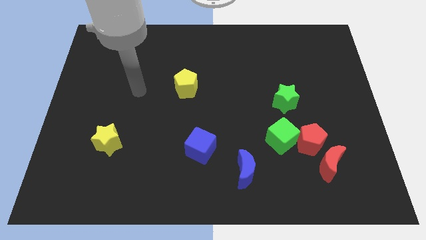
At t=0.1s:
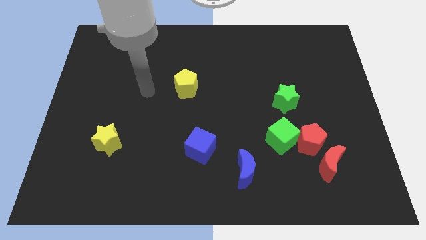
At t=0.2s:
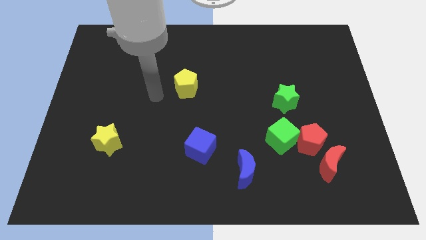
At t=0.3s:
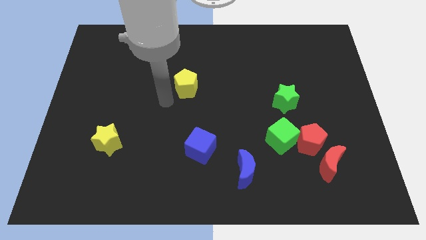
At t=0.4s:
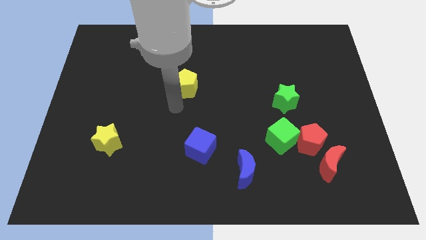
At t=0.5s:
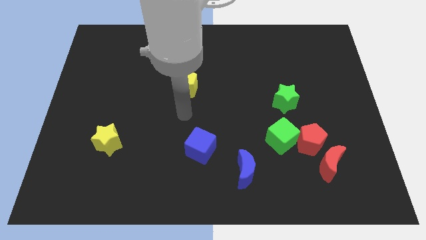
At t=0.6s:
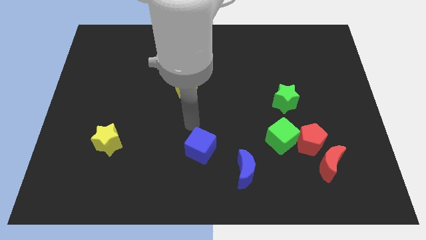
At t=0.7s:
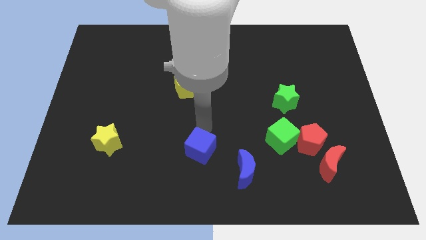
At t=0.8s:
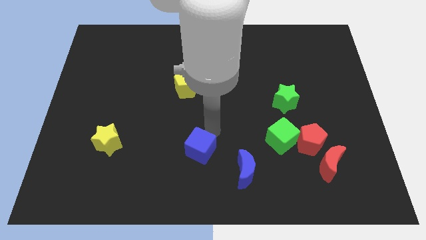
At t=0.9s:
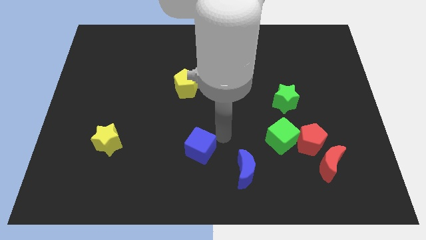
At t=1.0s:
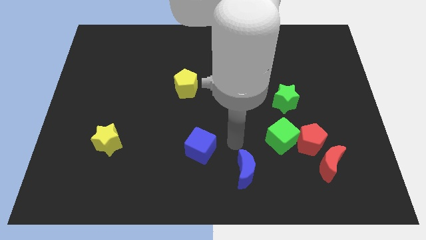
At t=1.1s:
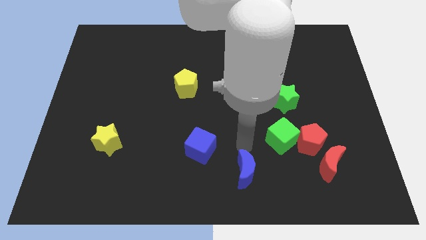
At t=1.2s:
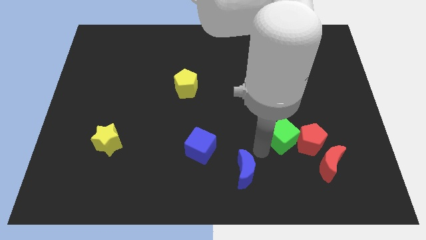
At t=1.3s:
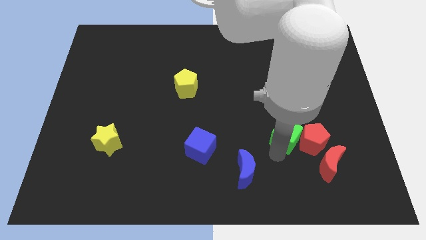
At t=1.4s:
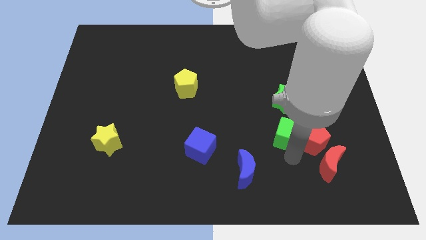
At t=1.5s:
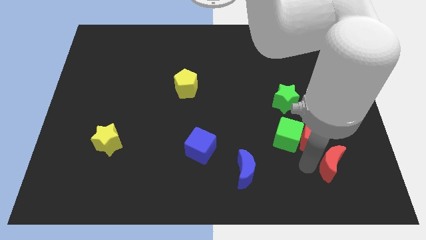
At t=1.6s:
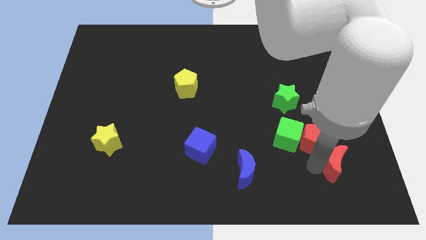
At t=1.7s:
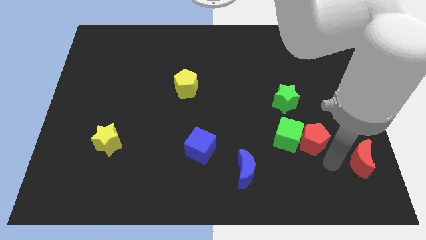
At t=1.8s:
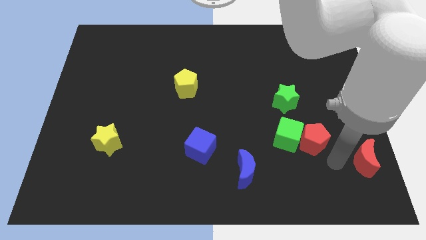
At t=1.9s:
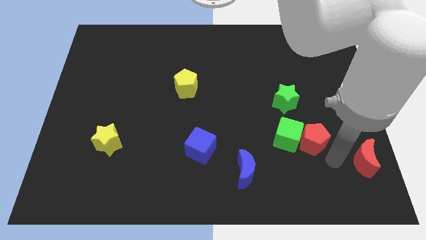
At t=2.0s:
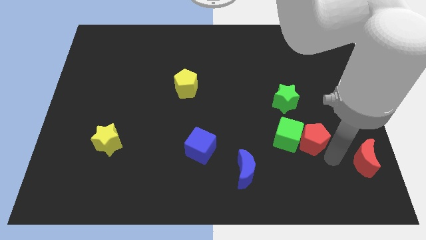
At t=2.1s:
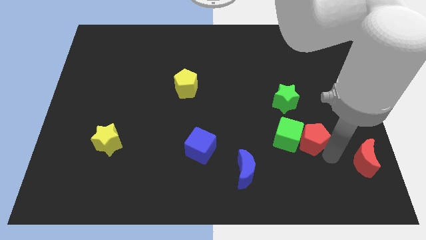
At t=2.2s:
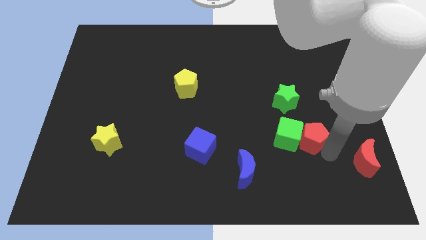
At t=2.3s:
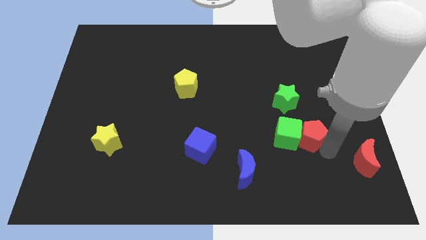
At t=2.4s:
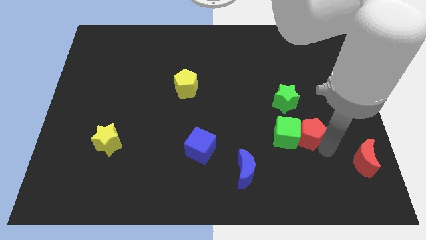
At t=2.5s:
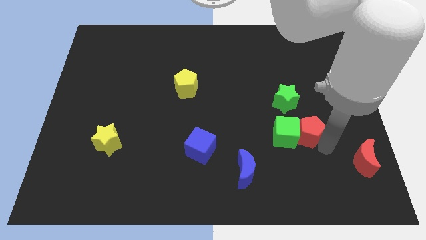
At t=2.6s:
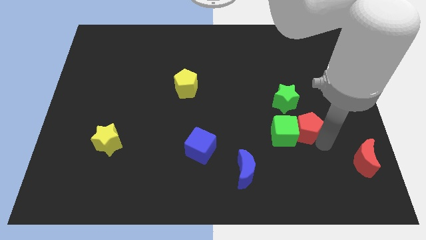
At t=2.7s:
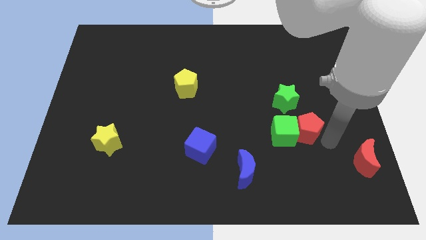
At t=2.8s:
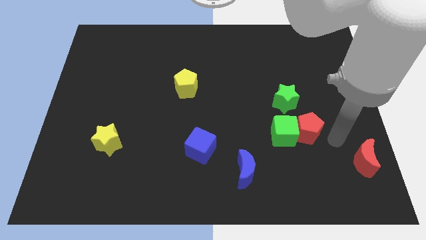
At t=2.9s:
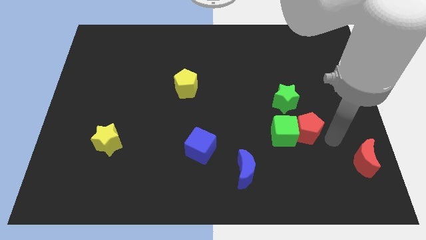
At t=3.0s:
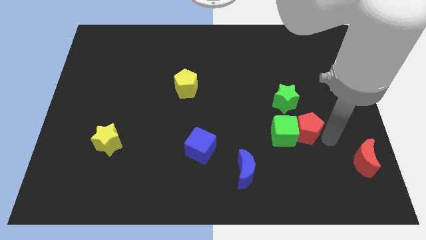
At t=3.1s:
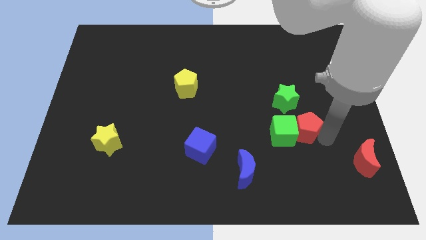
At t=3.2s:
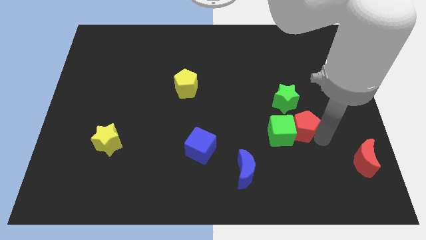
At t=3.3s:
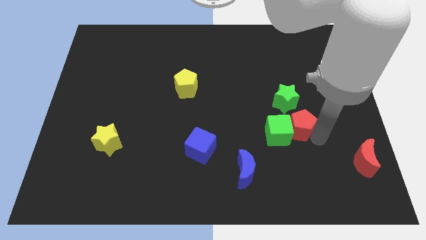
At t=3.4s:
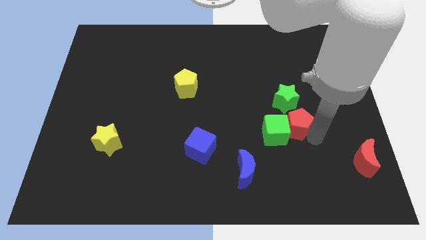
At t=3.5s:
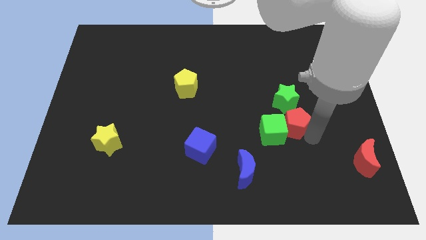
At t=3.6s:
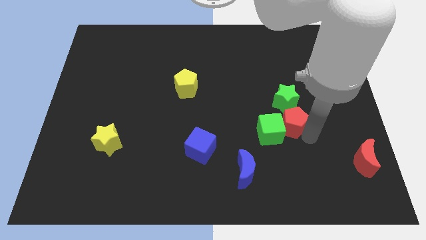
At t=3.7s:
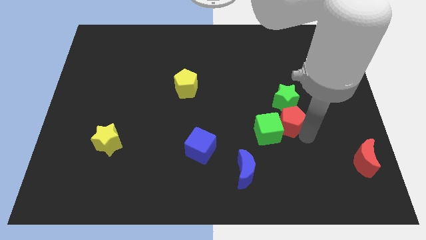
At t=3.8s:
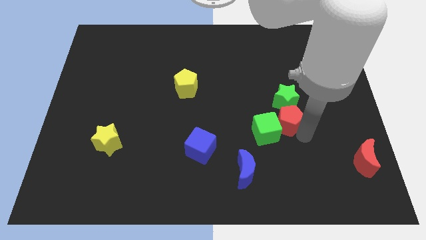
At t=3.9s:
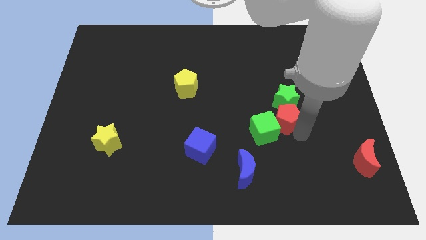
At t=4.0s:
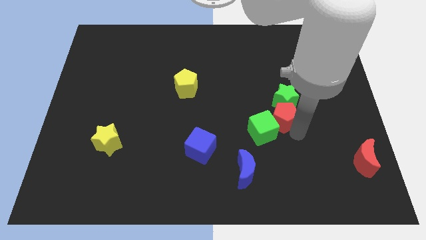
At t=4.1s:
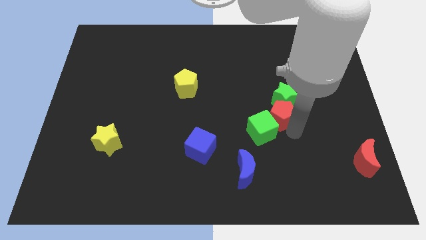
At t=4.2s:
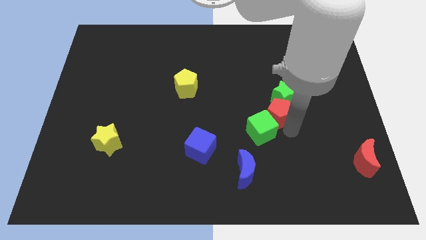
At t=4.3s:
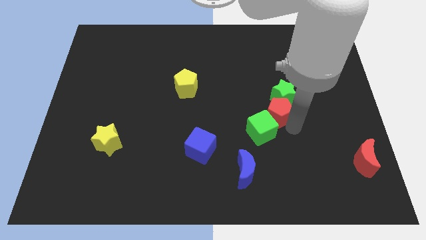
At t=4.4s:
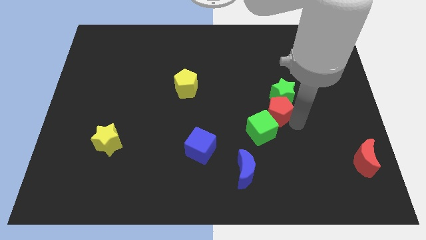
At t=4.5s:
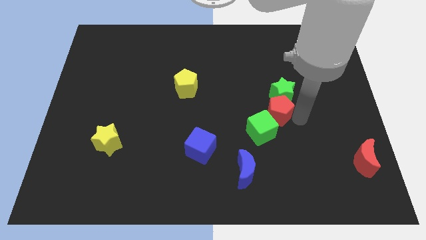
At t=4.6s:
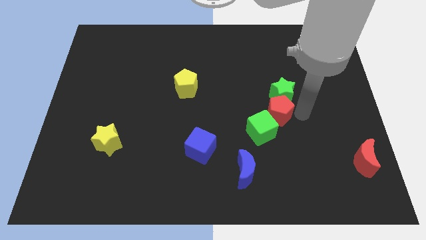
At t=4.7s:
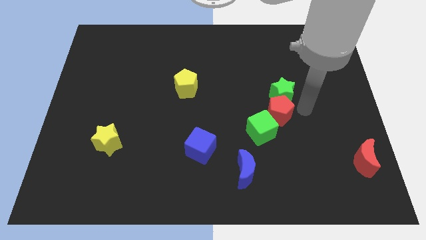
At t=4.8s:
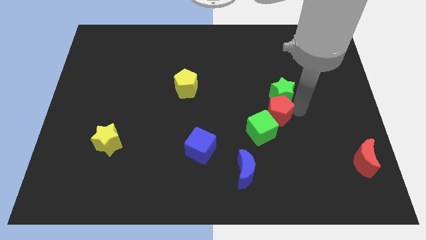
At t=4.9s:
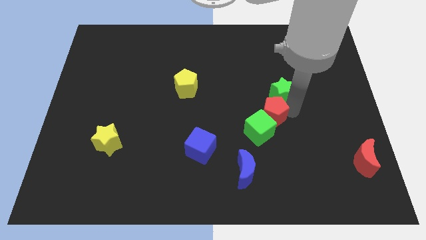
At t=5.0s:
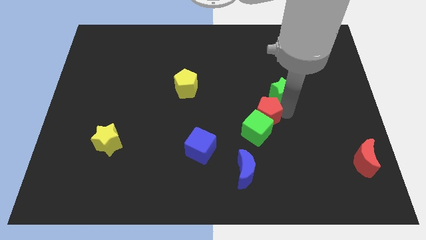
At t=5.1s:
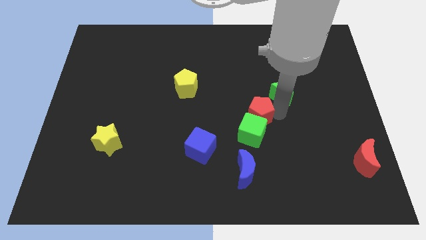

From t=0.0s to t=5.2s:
slide the red pentagon to the middle of the board
